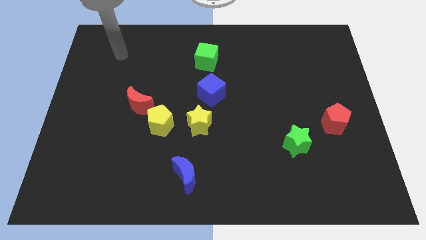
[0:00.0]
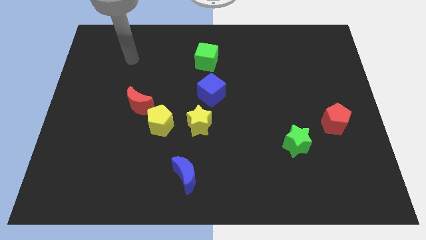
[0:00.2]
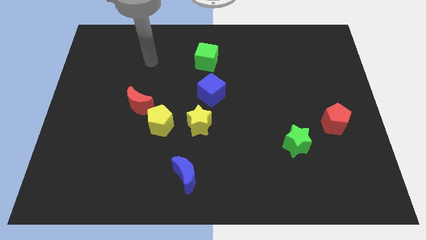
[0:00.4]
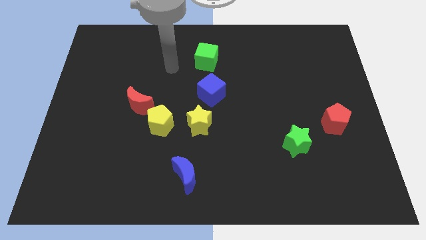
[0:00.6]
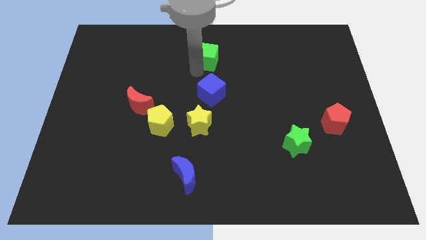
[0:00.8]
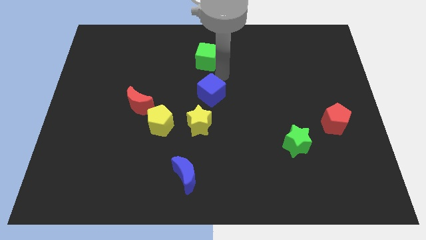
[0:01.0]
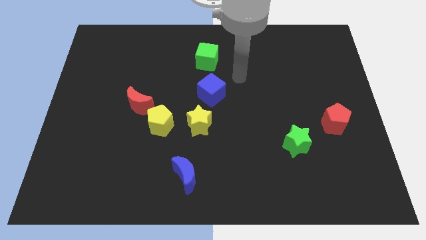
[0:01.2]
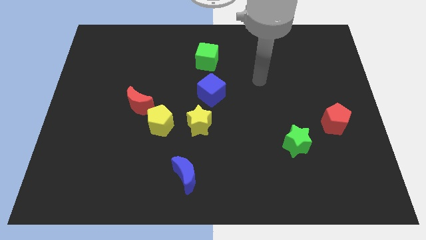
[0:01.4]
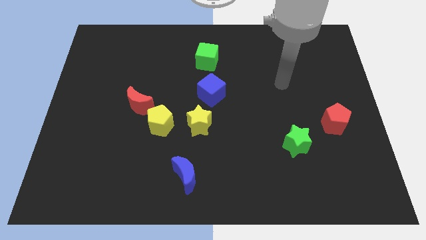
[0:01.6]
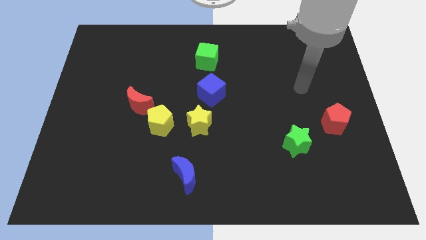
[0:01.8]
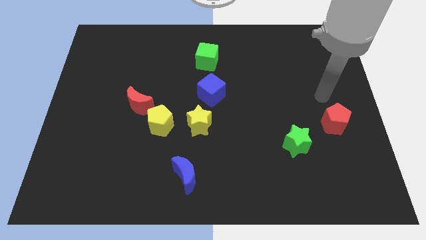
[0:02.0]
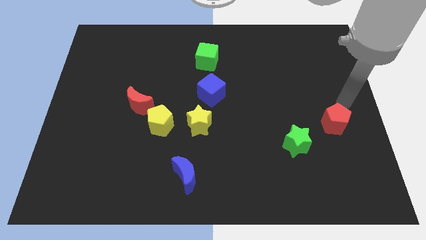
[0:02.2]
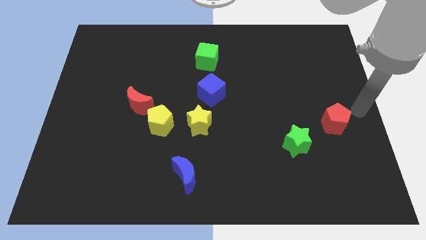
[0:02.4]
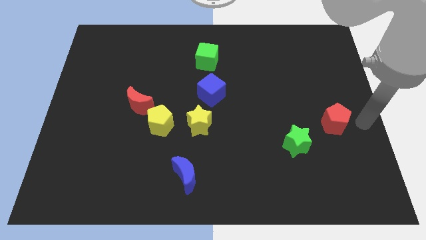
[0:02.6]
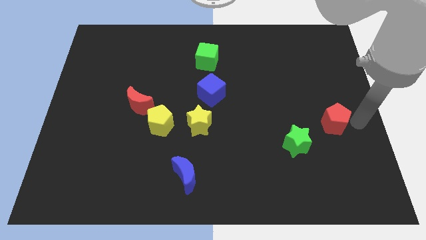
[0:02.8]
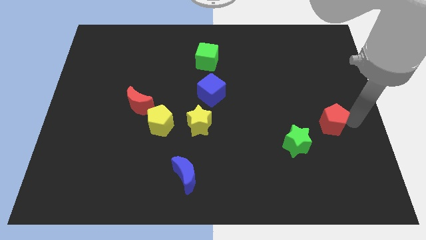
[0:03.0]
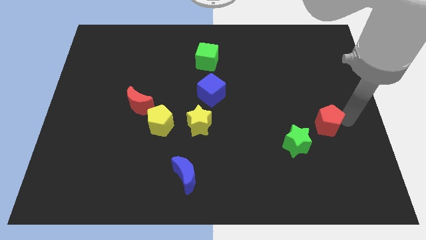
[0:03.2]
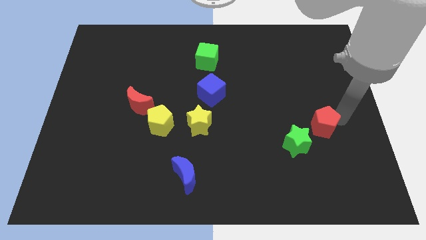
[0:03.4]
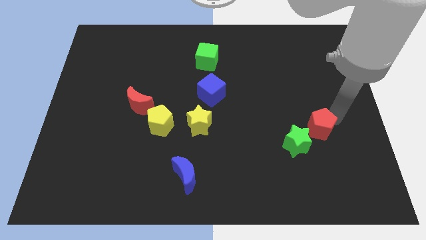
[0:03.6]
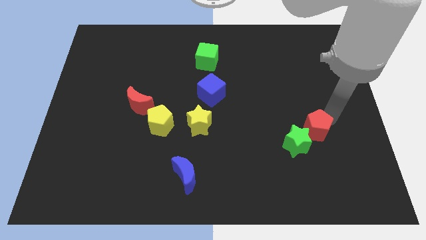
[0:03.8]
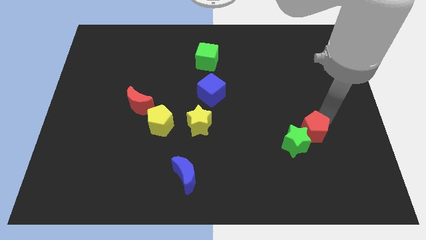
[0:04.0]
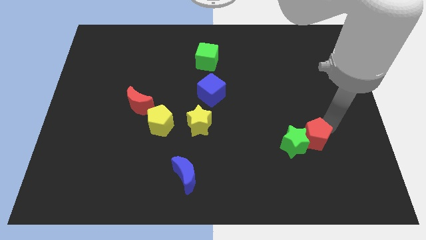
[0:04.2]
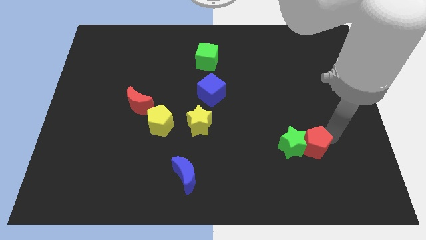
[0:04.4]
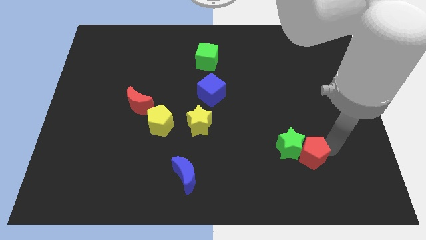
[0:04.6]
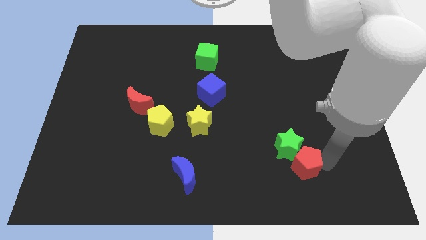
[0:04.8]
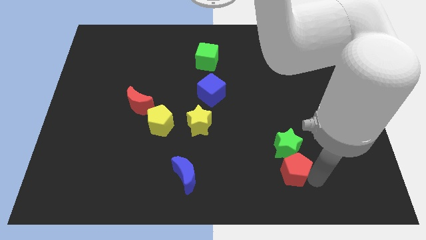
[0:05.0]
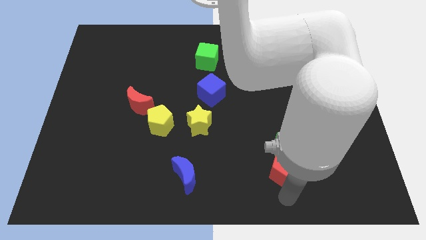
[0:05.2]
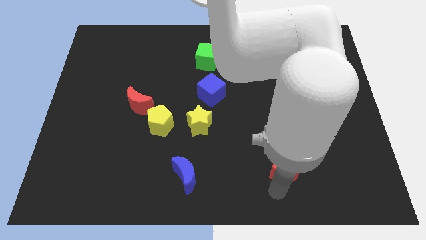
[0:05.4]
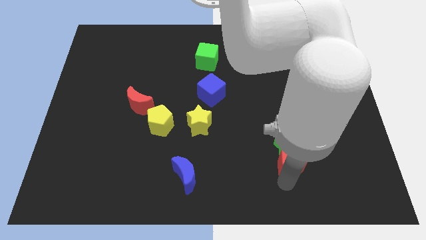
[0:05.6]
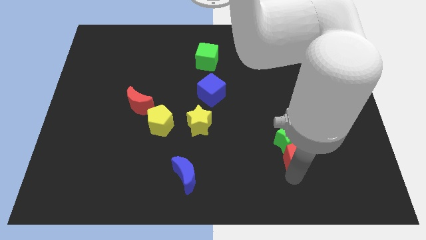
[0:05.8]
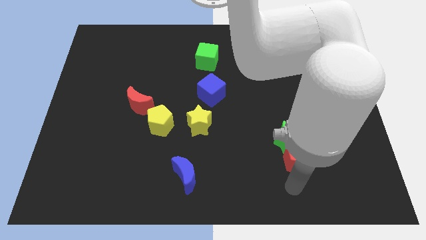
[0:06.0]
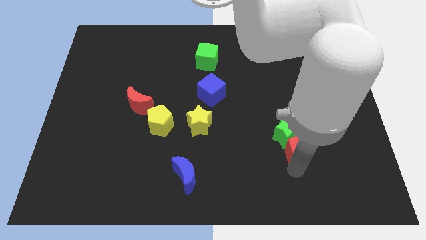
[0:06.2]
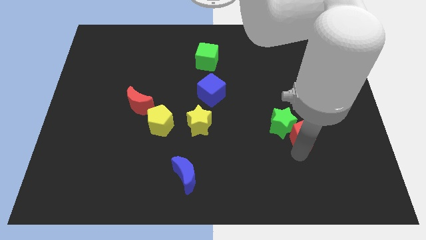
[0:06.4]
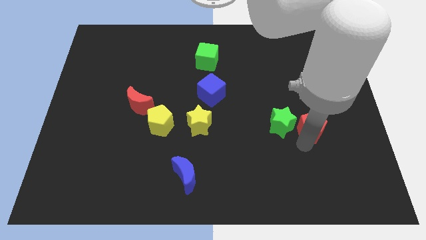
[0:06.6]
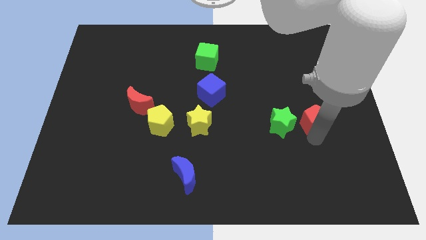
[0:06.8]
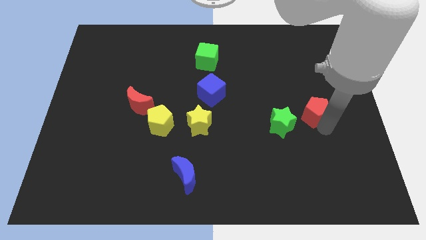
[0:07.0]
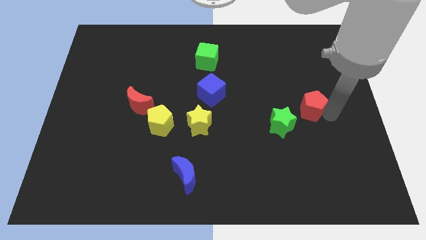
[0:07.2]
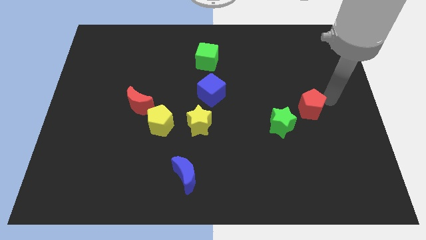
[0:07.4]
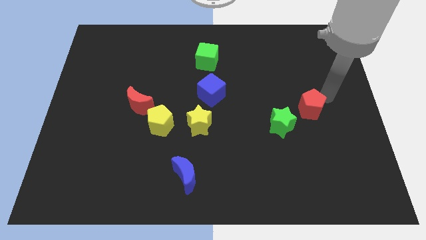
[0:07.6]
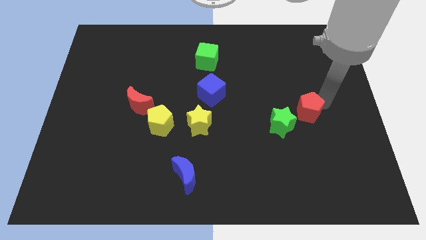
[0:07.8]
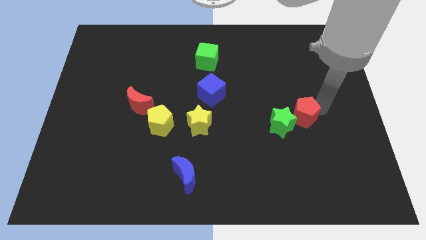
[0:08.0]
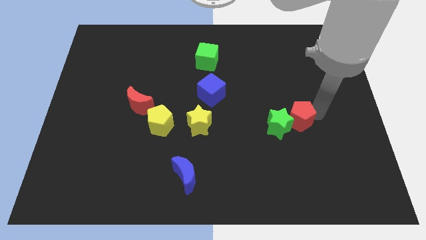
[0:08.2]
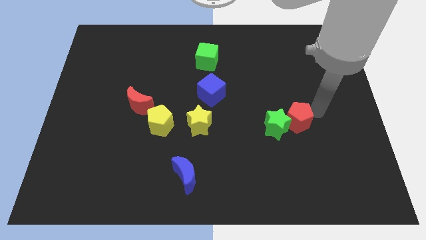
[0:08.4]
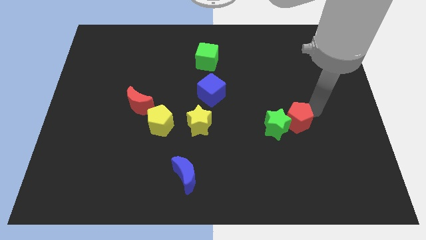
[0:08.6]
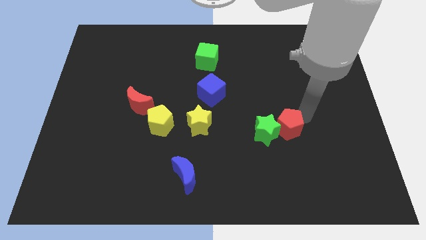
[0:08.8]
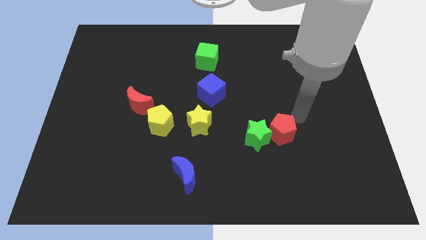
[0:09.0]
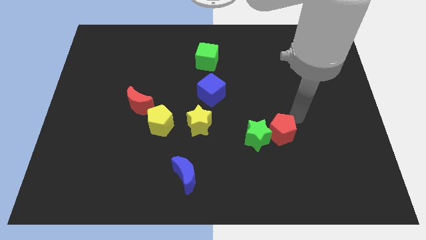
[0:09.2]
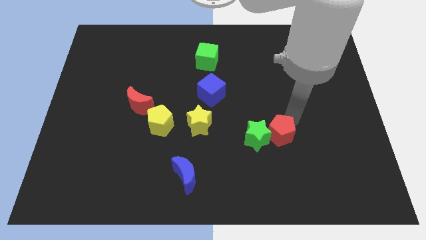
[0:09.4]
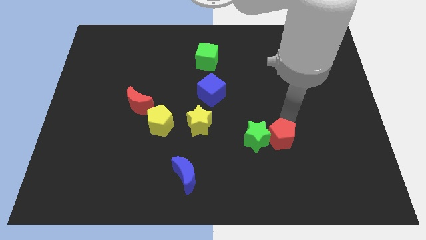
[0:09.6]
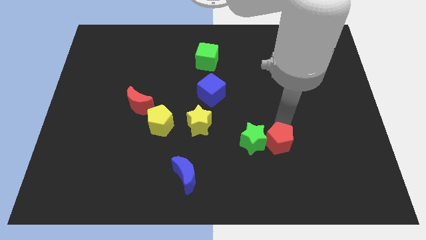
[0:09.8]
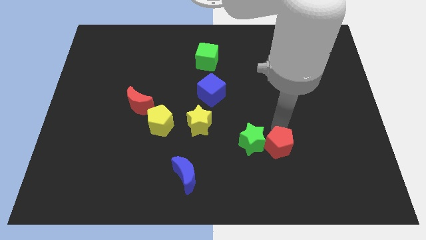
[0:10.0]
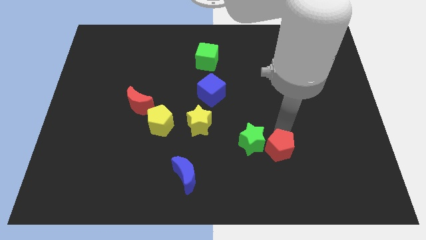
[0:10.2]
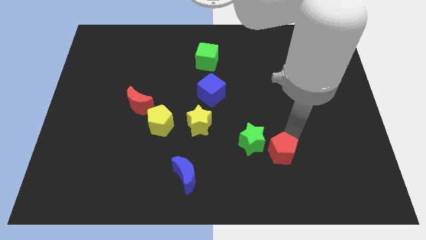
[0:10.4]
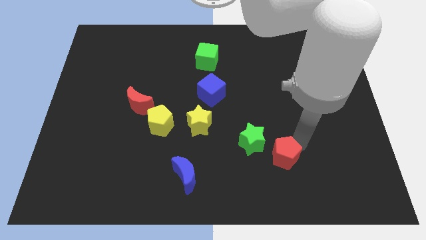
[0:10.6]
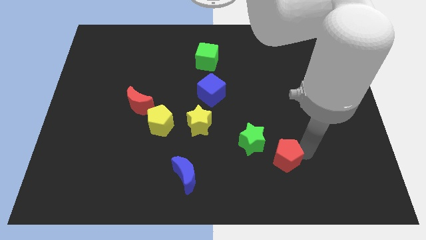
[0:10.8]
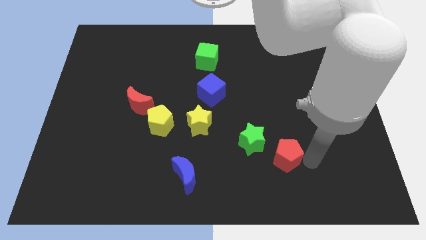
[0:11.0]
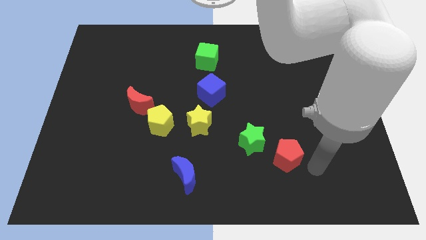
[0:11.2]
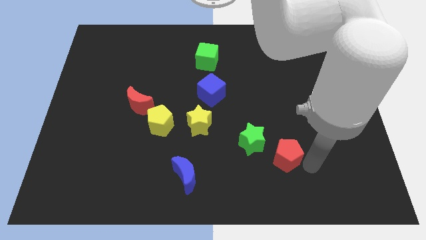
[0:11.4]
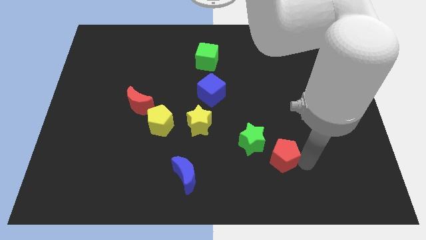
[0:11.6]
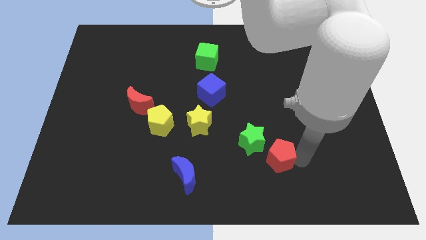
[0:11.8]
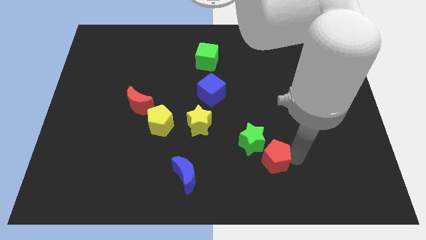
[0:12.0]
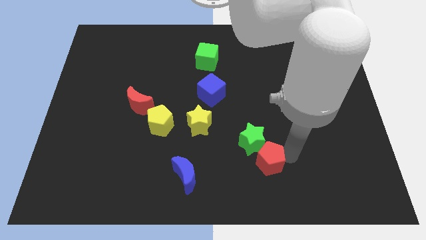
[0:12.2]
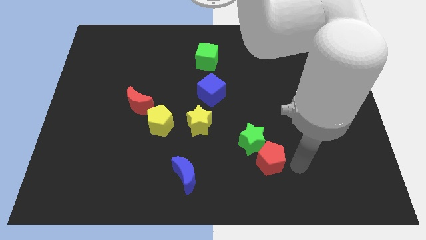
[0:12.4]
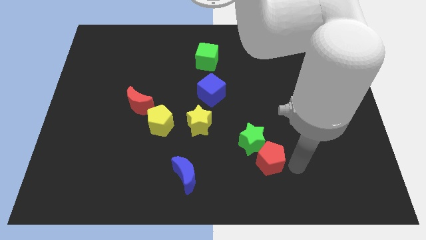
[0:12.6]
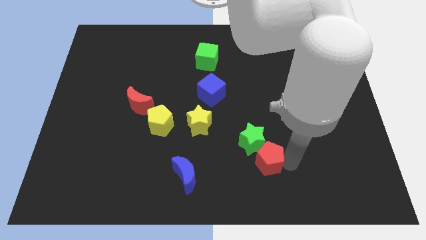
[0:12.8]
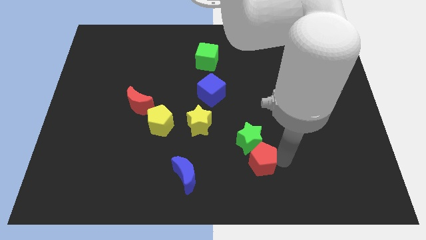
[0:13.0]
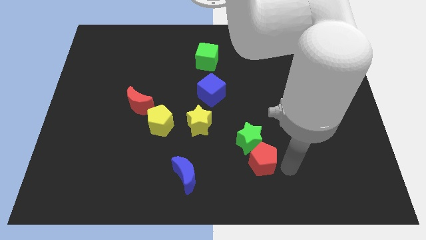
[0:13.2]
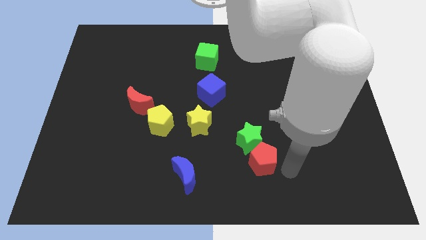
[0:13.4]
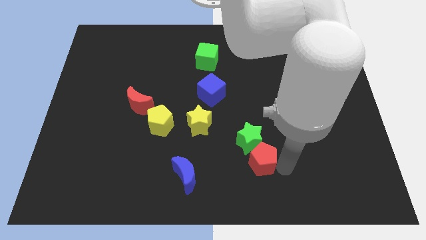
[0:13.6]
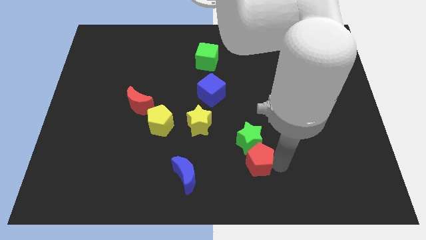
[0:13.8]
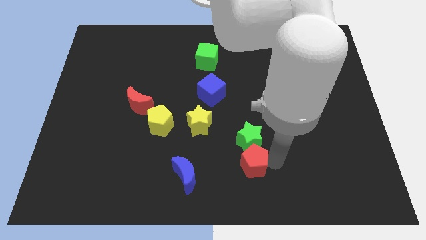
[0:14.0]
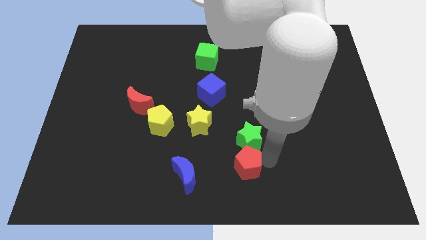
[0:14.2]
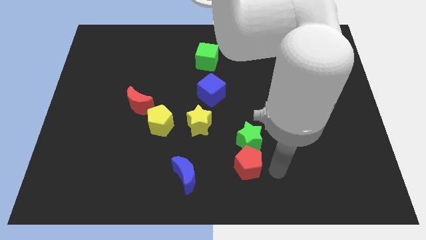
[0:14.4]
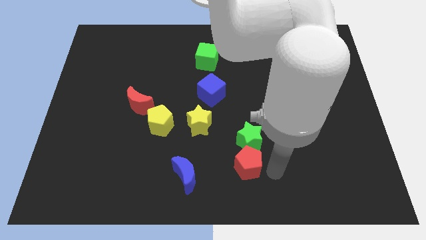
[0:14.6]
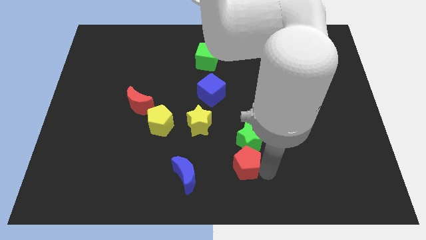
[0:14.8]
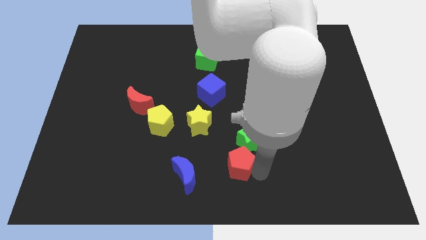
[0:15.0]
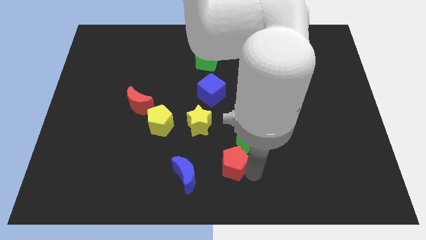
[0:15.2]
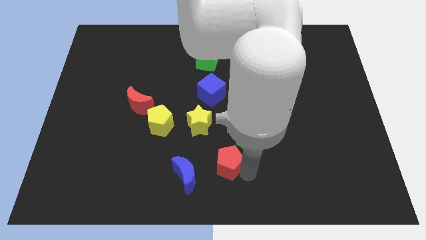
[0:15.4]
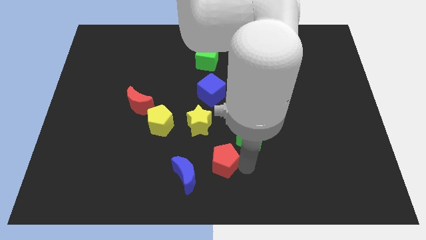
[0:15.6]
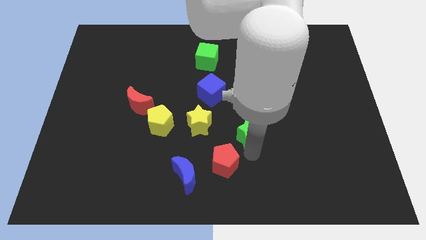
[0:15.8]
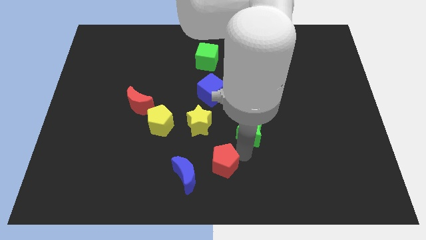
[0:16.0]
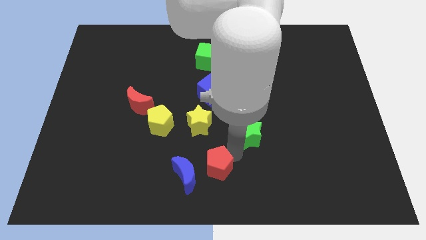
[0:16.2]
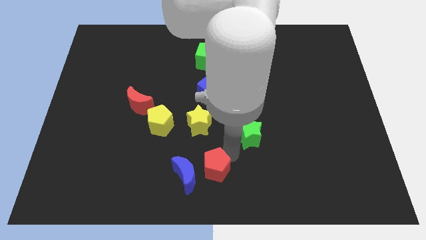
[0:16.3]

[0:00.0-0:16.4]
move the red pentagon next to the blue moon
